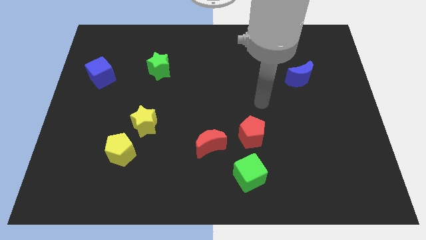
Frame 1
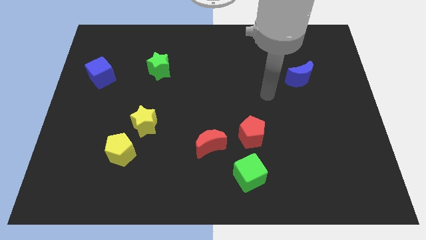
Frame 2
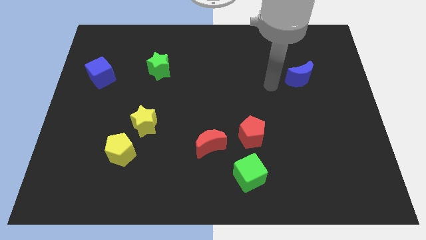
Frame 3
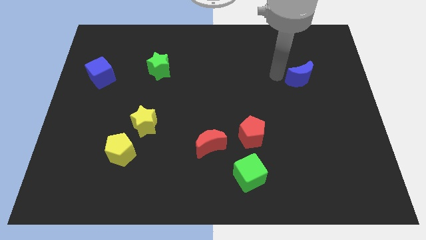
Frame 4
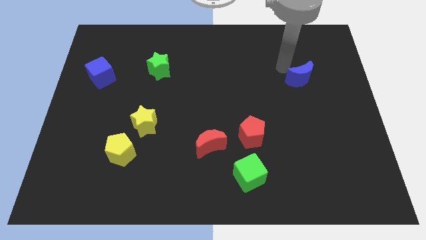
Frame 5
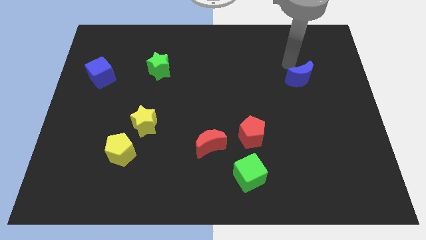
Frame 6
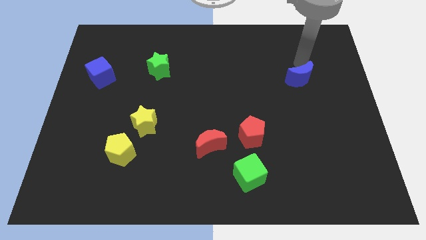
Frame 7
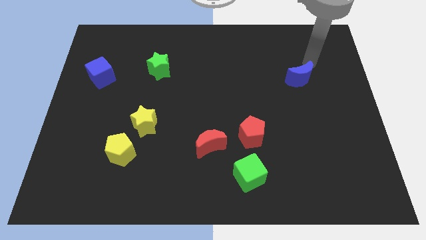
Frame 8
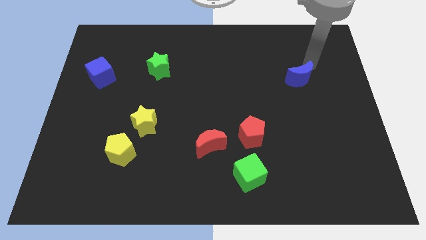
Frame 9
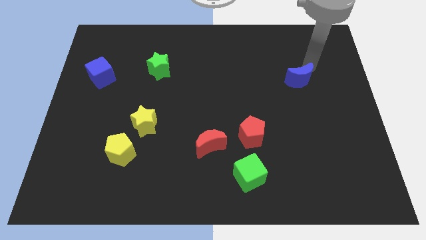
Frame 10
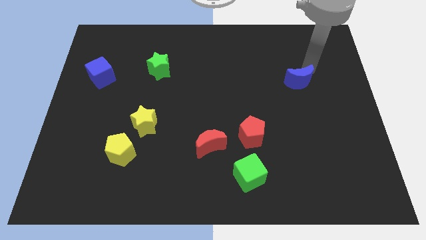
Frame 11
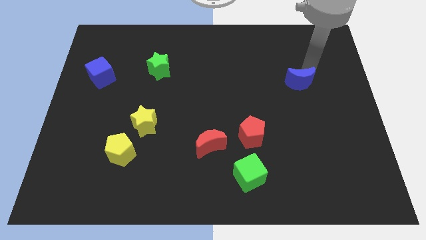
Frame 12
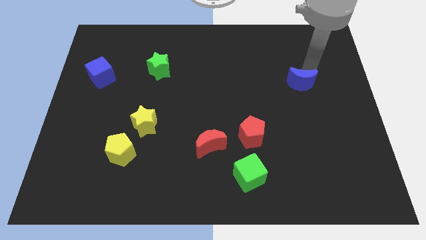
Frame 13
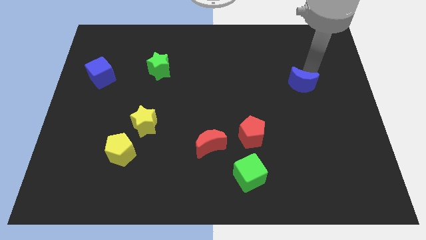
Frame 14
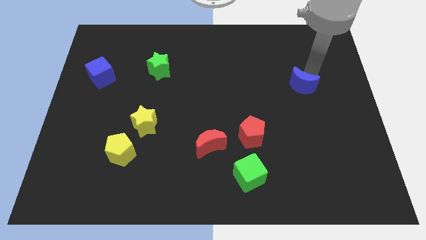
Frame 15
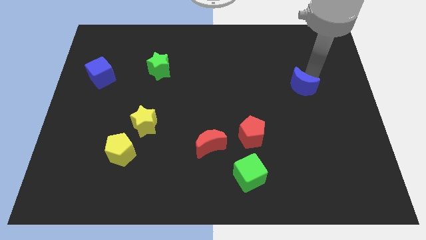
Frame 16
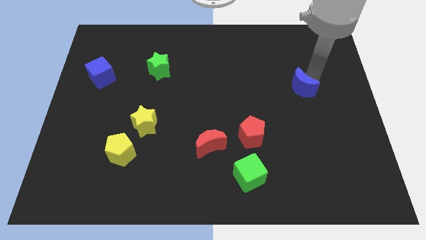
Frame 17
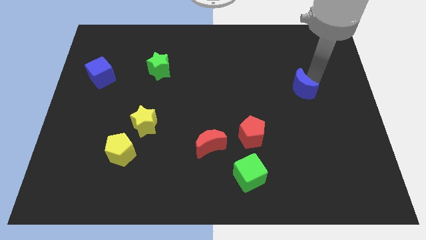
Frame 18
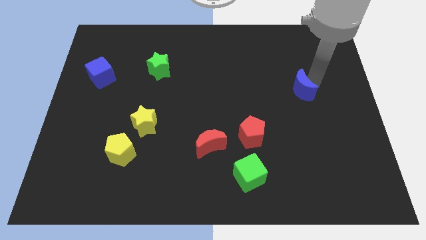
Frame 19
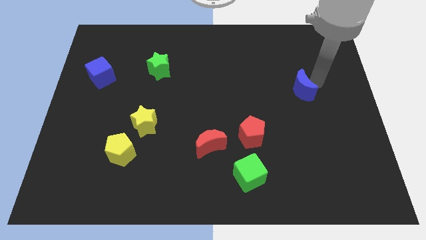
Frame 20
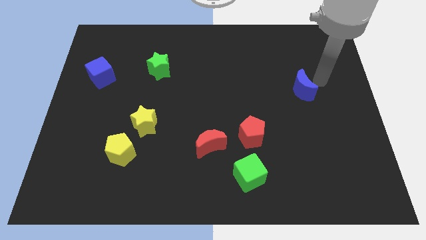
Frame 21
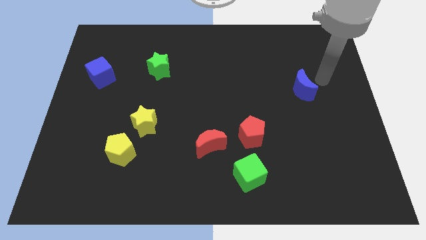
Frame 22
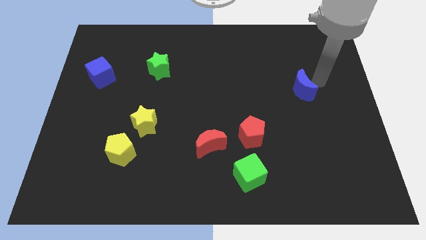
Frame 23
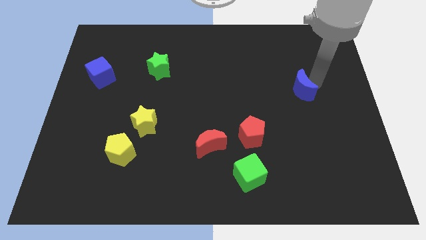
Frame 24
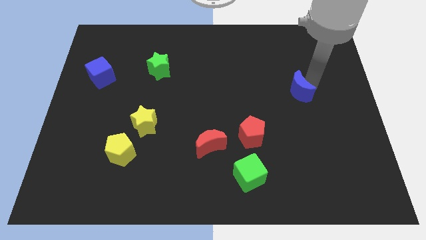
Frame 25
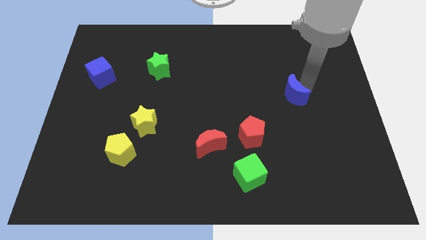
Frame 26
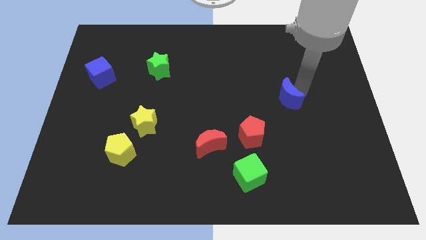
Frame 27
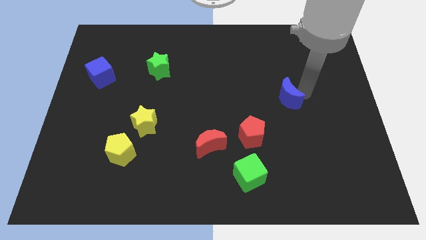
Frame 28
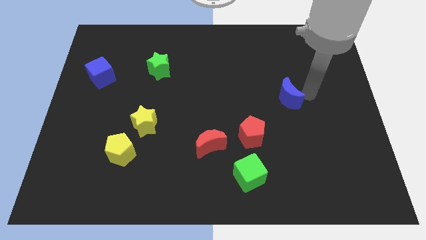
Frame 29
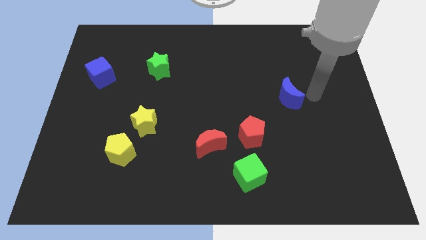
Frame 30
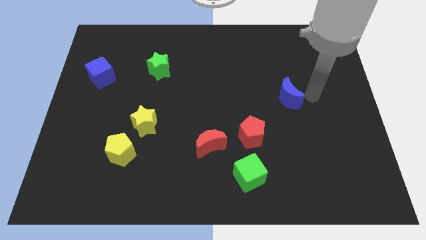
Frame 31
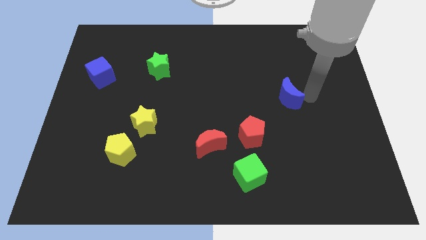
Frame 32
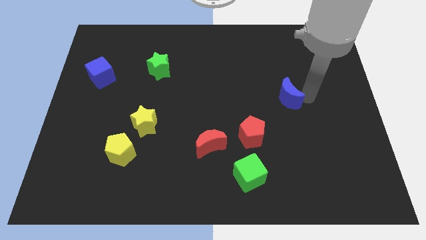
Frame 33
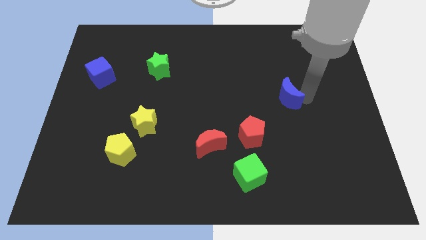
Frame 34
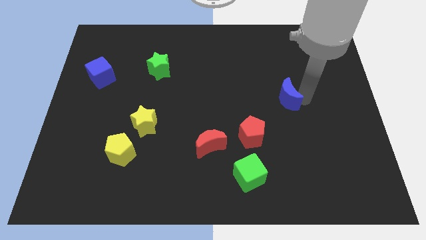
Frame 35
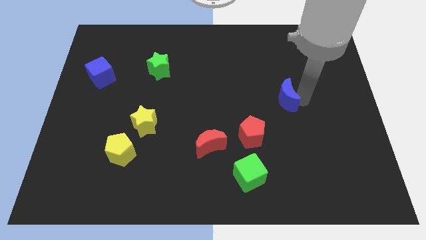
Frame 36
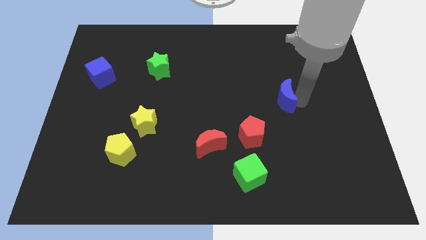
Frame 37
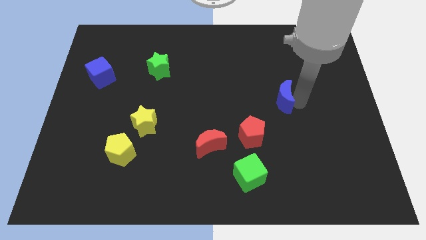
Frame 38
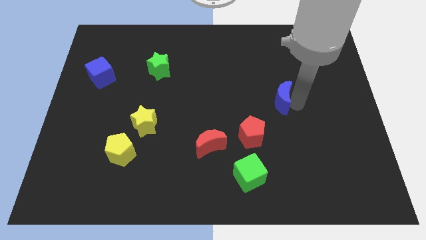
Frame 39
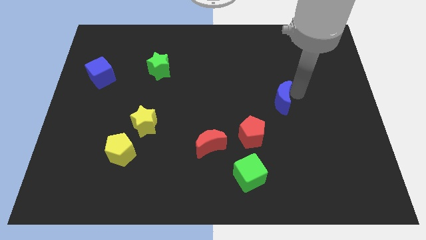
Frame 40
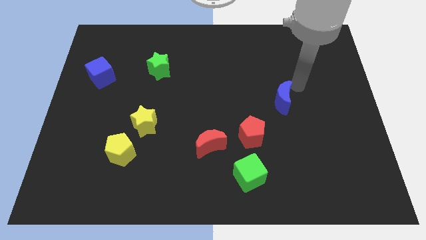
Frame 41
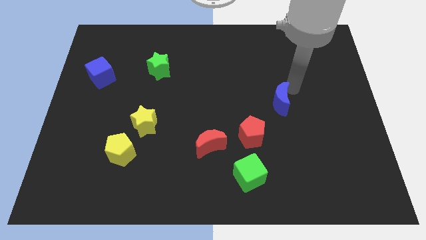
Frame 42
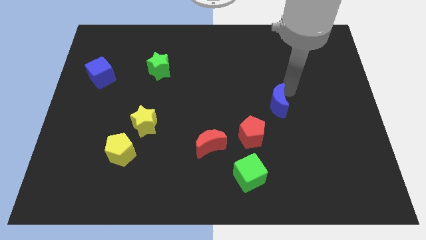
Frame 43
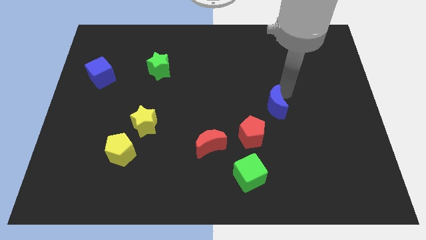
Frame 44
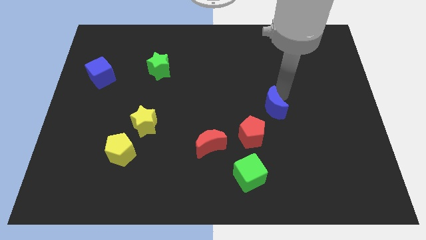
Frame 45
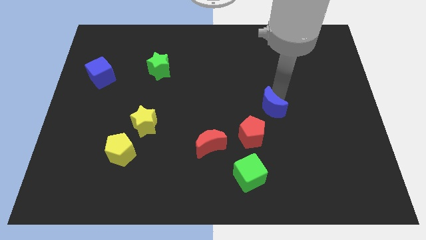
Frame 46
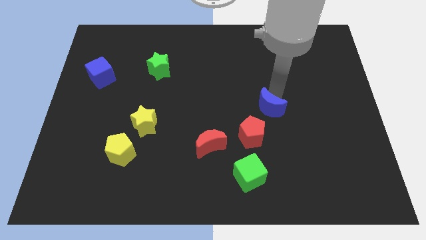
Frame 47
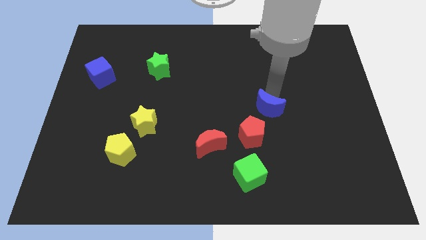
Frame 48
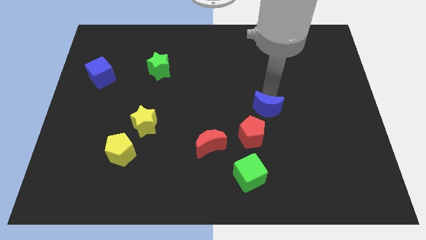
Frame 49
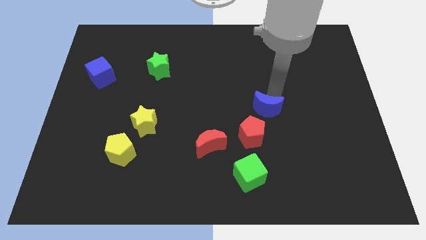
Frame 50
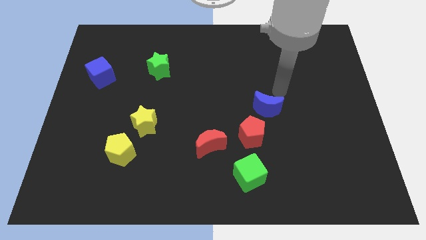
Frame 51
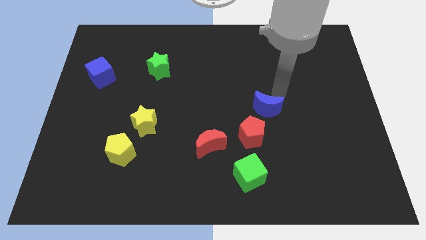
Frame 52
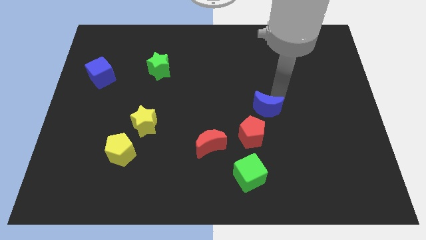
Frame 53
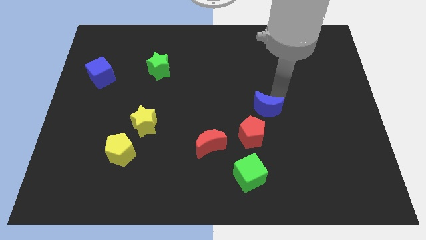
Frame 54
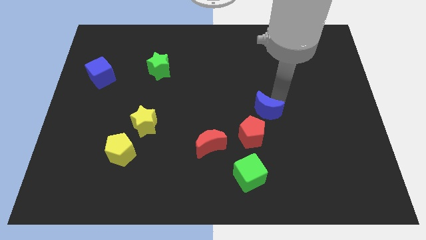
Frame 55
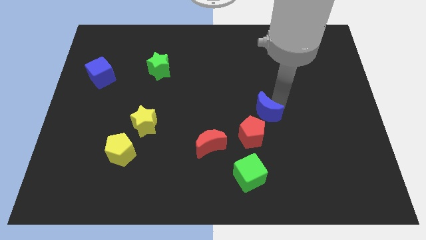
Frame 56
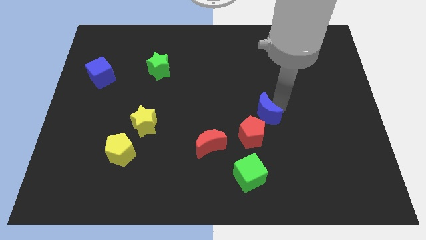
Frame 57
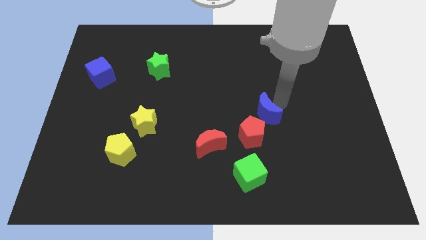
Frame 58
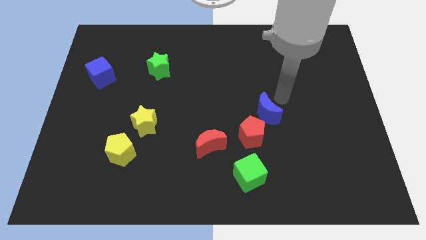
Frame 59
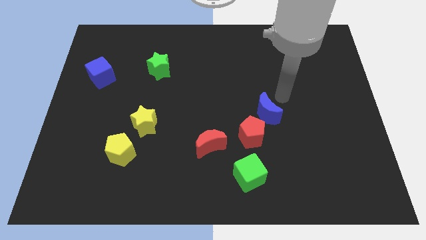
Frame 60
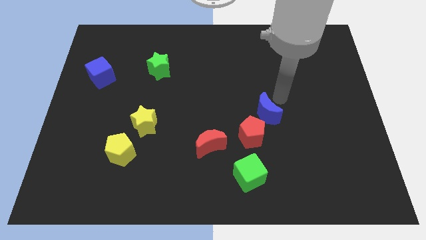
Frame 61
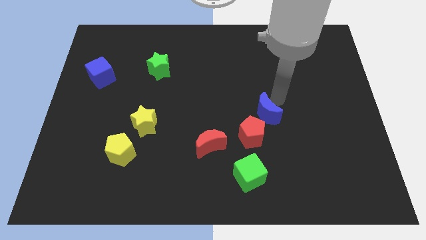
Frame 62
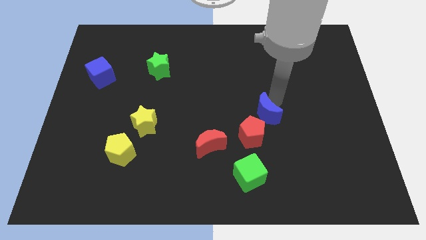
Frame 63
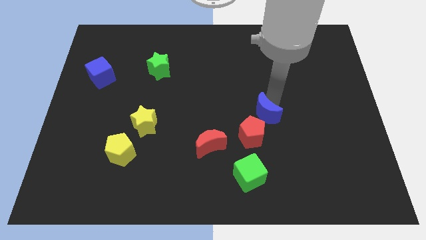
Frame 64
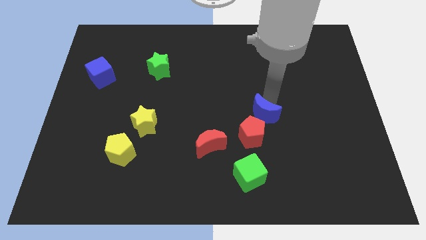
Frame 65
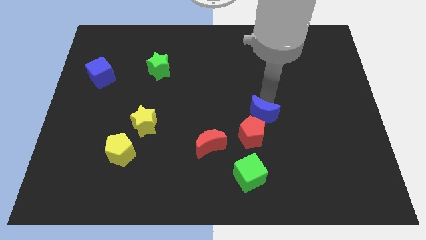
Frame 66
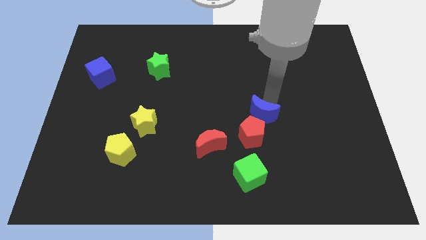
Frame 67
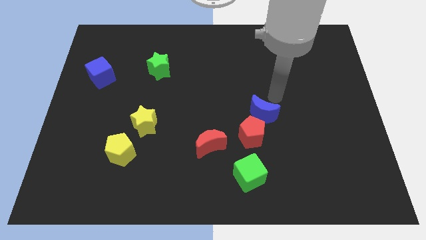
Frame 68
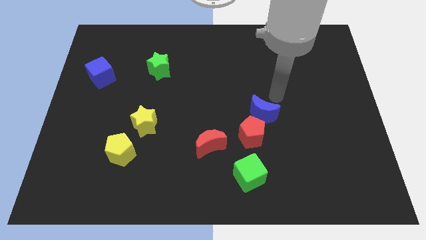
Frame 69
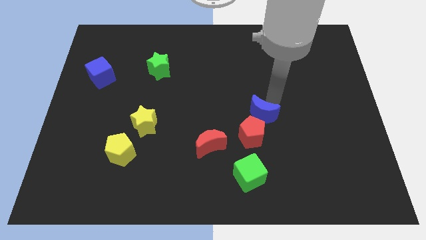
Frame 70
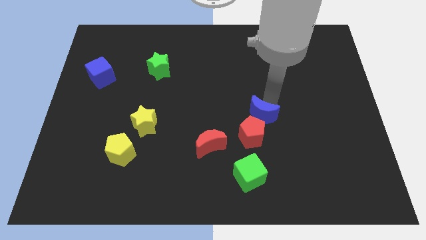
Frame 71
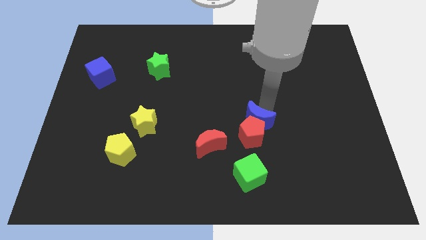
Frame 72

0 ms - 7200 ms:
push the blue moon to the top side of the green cube
